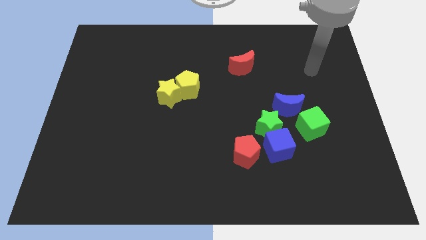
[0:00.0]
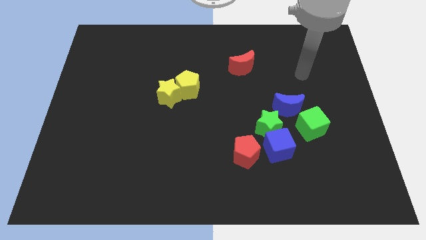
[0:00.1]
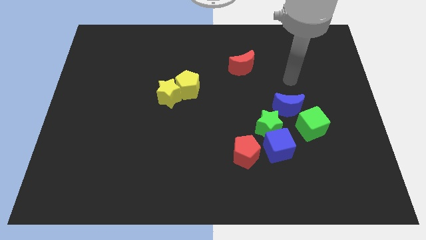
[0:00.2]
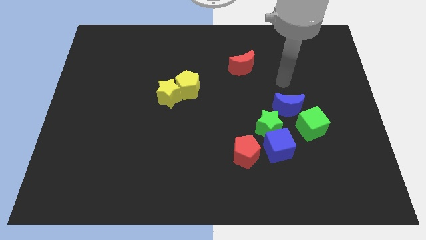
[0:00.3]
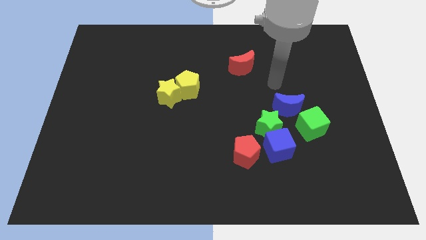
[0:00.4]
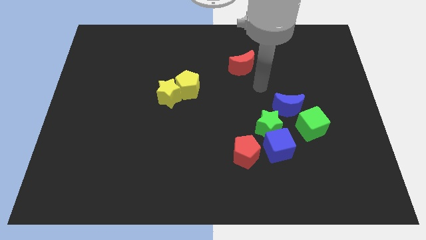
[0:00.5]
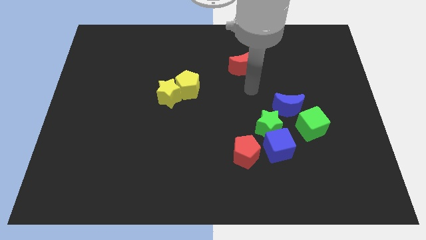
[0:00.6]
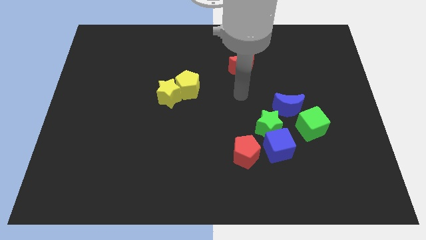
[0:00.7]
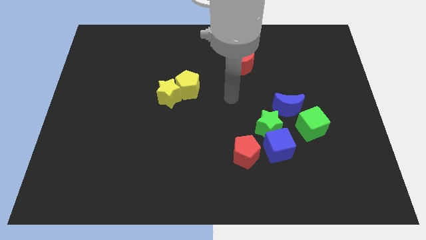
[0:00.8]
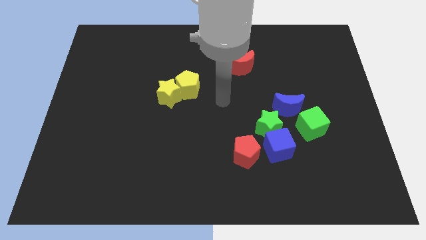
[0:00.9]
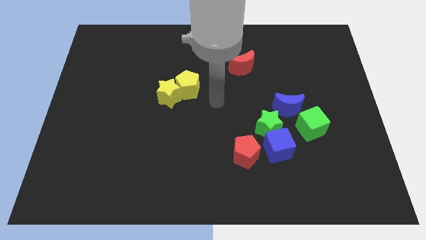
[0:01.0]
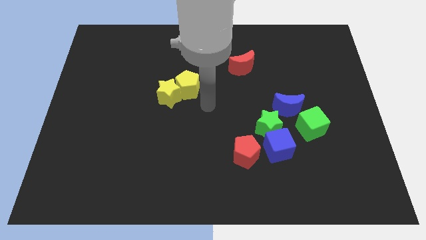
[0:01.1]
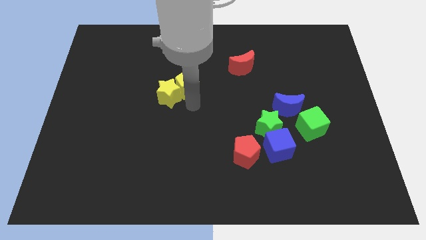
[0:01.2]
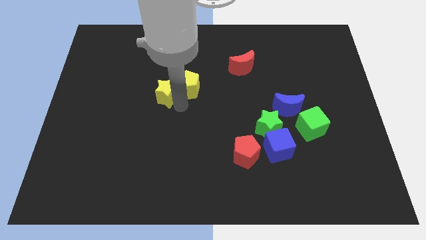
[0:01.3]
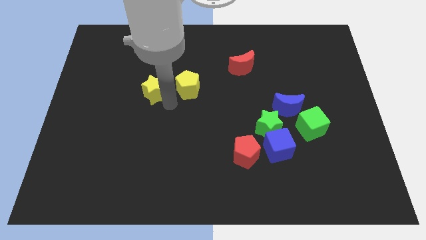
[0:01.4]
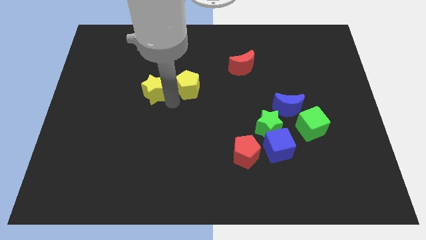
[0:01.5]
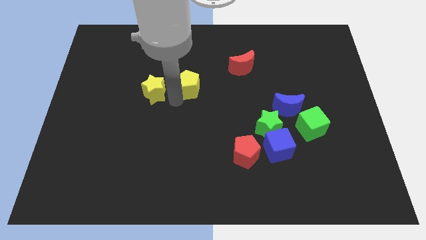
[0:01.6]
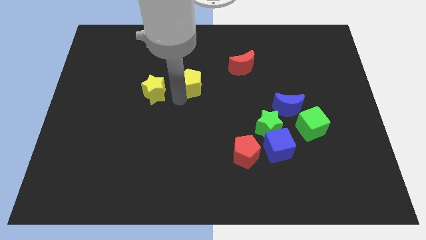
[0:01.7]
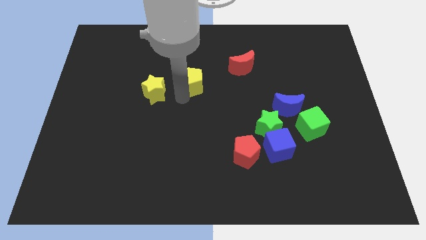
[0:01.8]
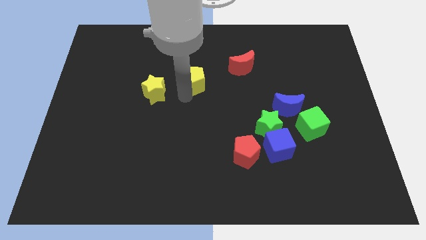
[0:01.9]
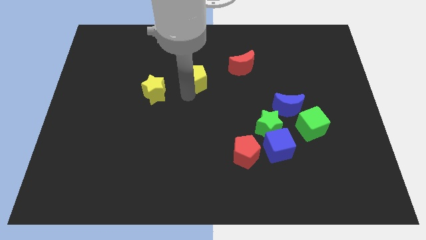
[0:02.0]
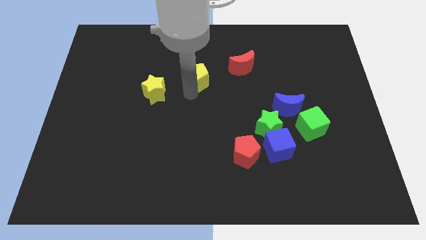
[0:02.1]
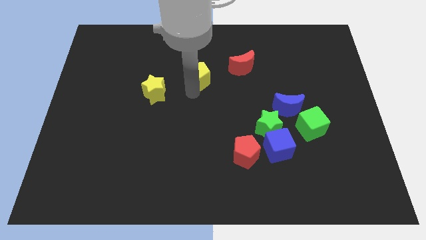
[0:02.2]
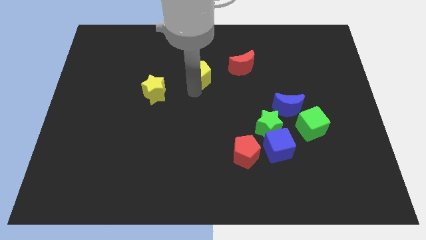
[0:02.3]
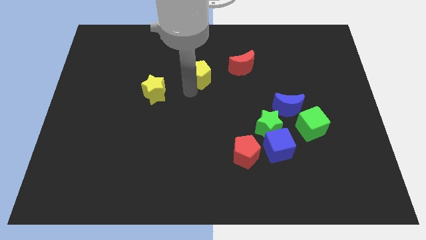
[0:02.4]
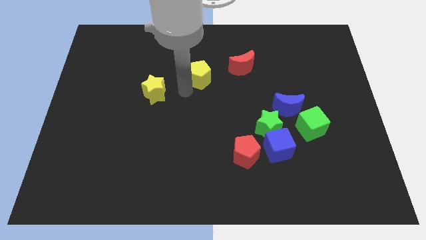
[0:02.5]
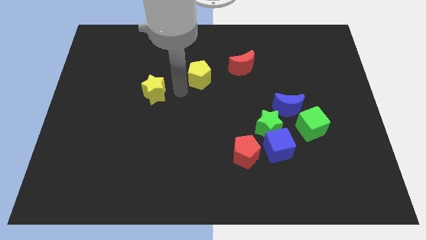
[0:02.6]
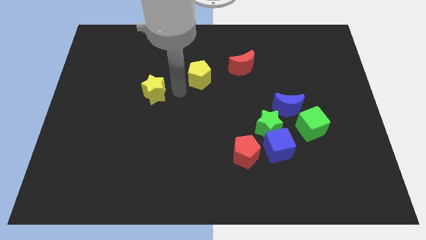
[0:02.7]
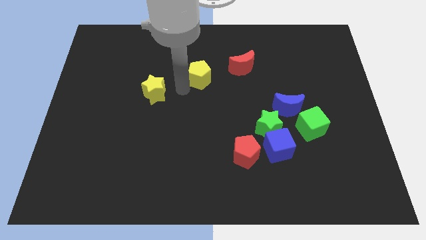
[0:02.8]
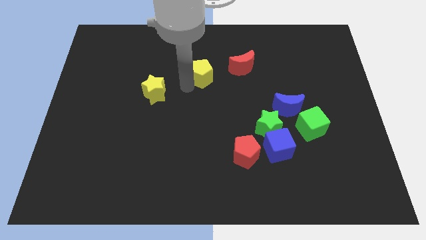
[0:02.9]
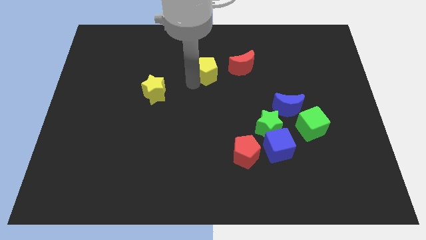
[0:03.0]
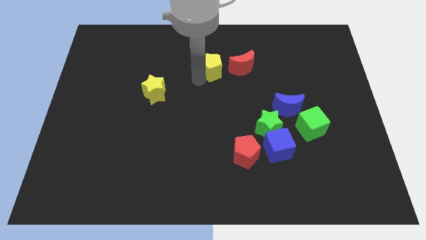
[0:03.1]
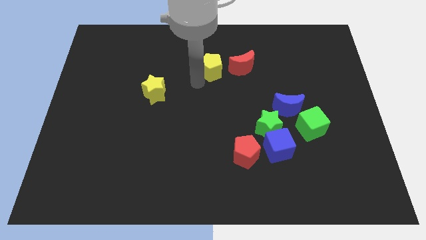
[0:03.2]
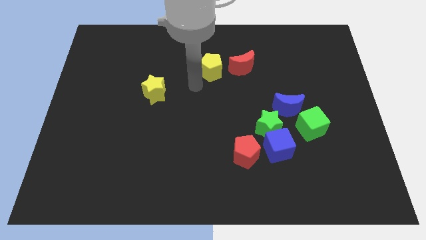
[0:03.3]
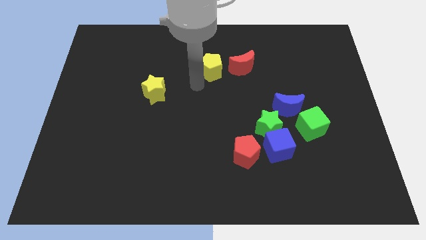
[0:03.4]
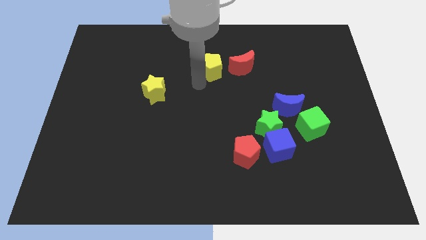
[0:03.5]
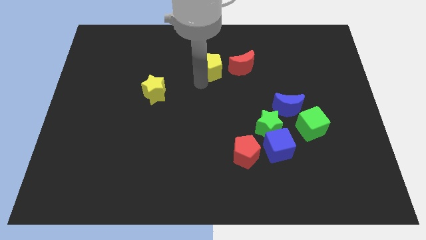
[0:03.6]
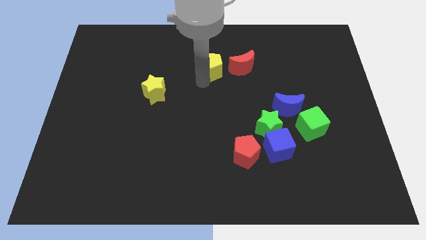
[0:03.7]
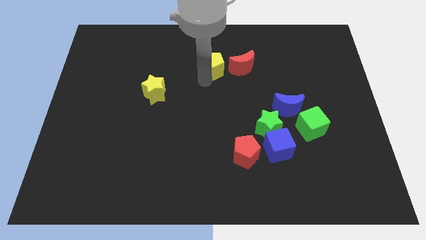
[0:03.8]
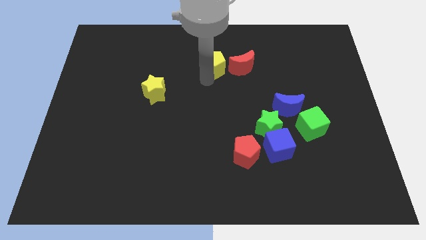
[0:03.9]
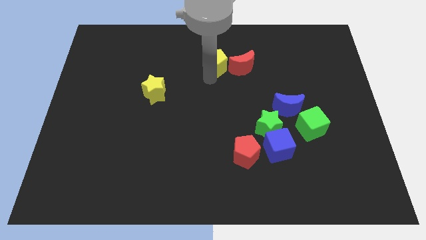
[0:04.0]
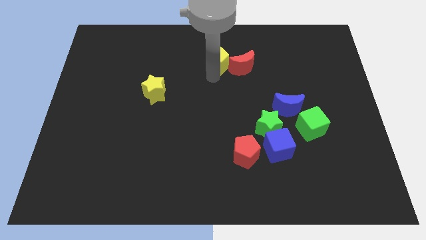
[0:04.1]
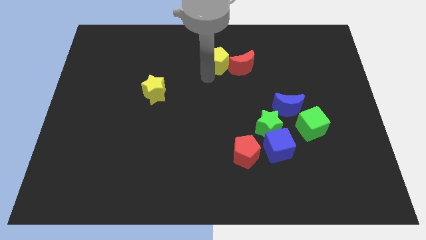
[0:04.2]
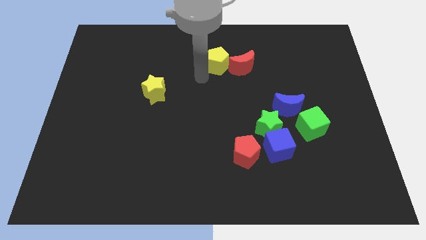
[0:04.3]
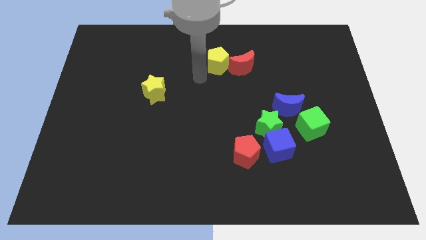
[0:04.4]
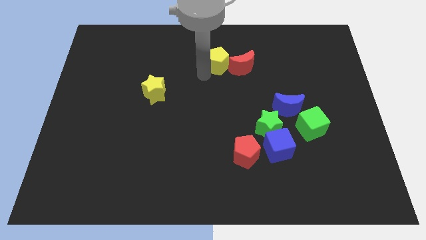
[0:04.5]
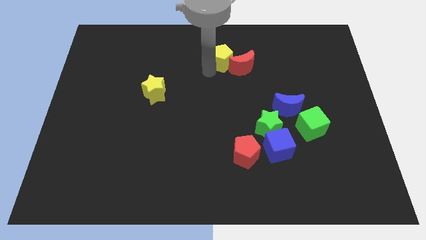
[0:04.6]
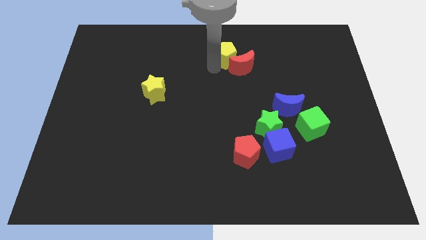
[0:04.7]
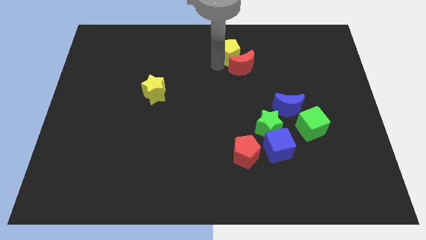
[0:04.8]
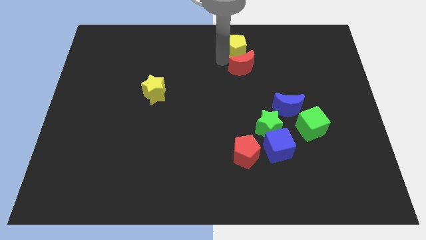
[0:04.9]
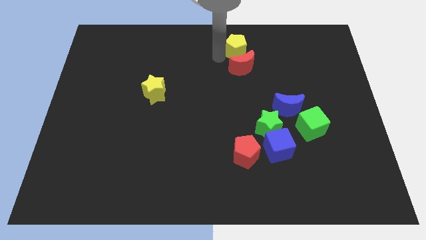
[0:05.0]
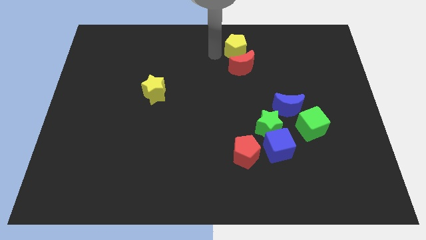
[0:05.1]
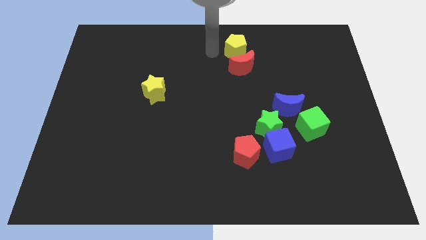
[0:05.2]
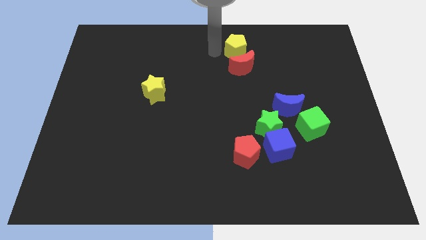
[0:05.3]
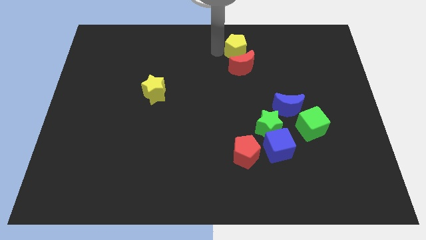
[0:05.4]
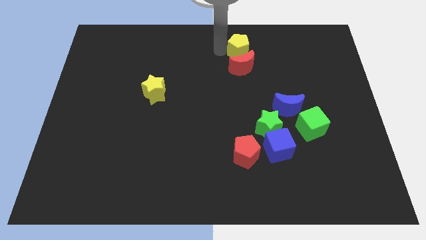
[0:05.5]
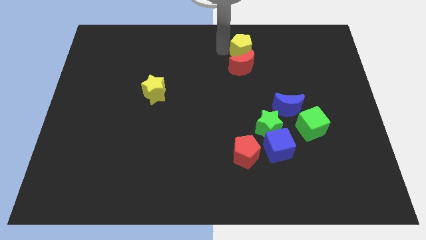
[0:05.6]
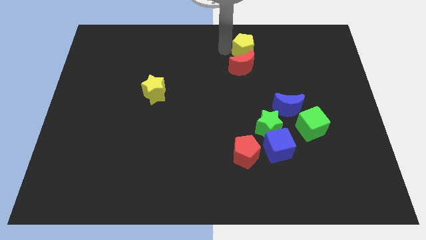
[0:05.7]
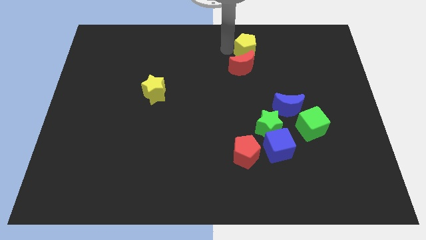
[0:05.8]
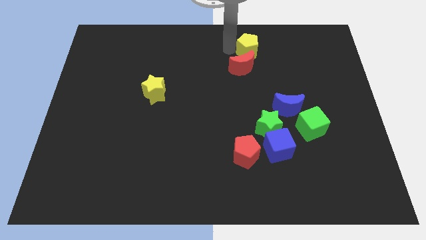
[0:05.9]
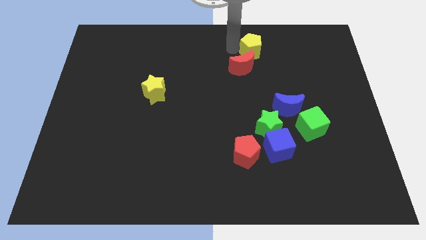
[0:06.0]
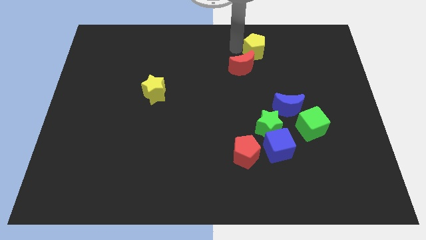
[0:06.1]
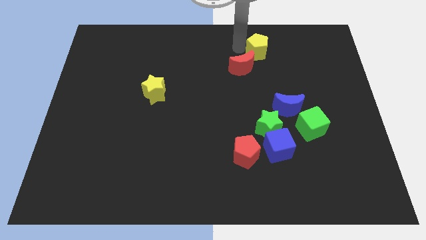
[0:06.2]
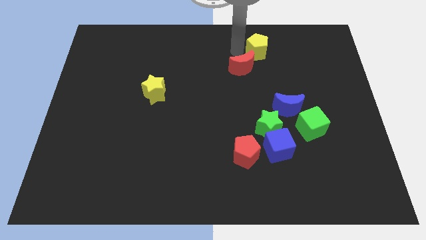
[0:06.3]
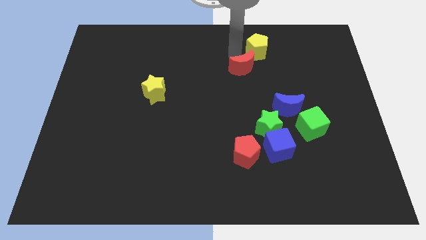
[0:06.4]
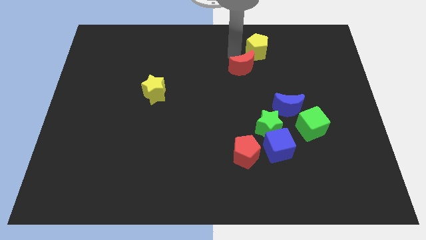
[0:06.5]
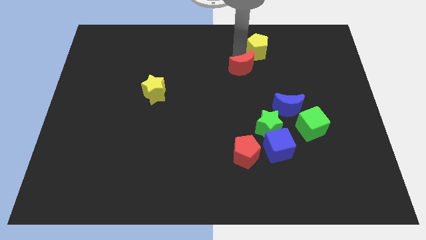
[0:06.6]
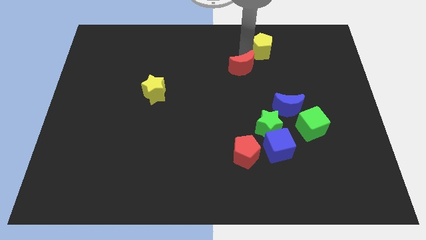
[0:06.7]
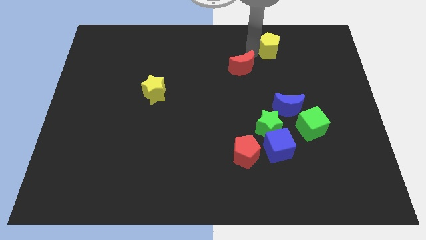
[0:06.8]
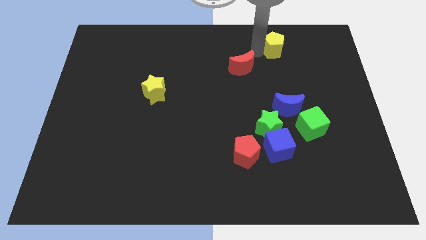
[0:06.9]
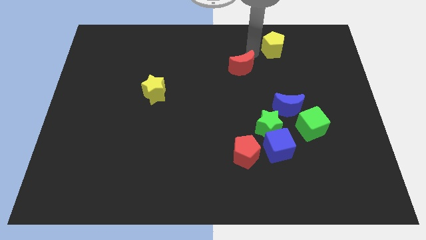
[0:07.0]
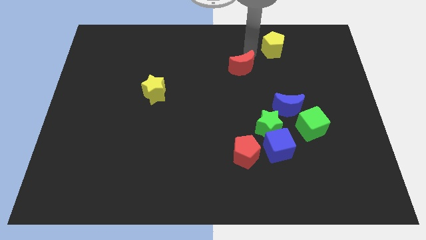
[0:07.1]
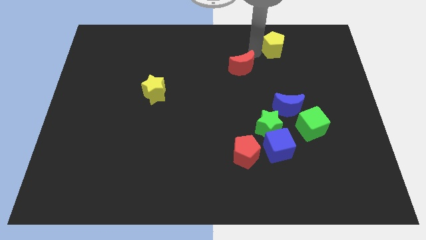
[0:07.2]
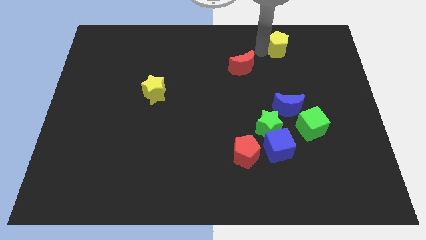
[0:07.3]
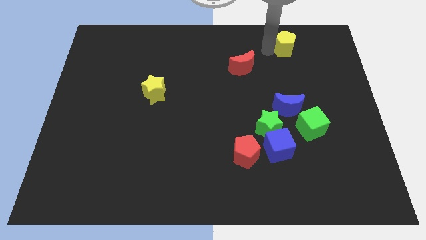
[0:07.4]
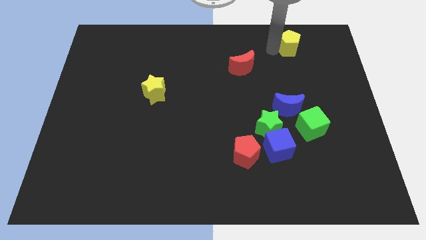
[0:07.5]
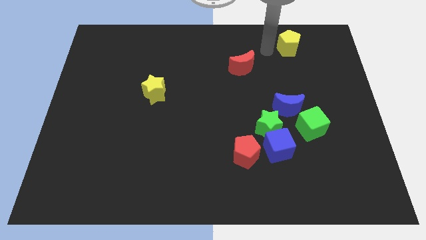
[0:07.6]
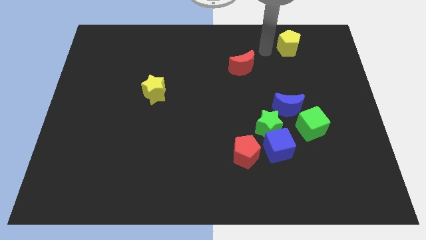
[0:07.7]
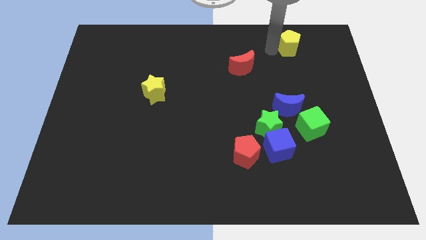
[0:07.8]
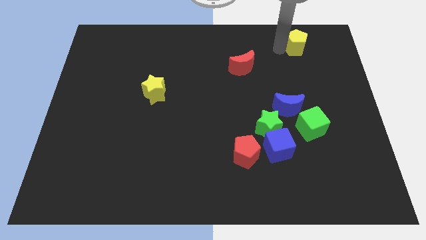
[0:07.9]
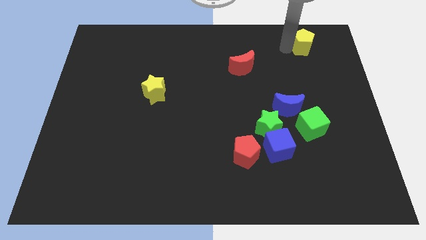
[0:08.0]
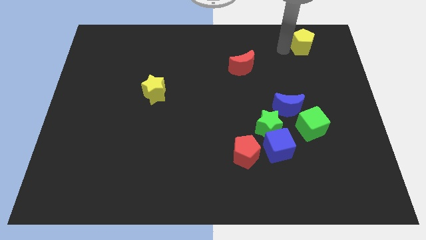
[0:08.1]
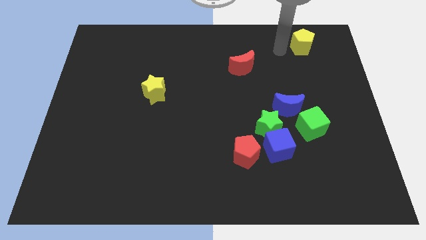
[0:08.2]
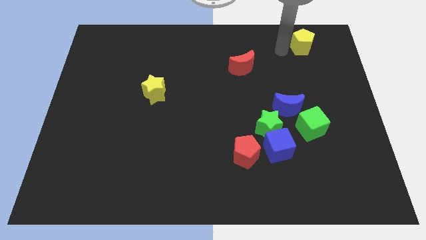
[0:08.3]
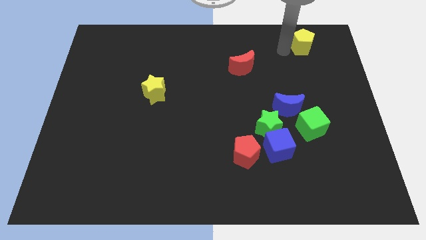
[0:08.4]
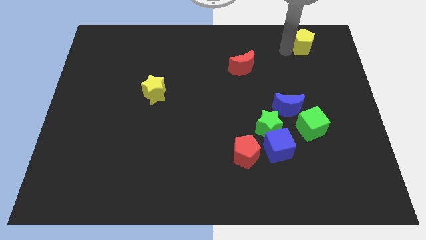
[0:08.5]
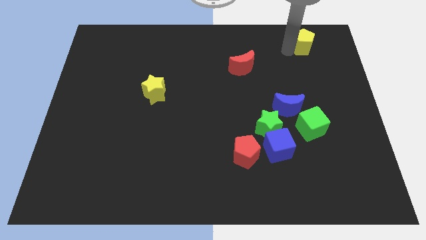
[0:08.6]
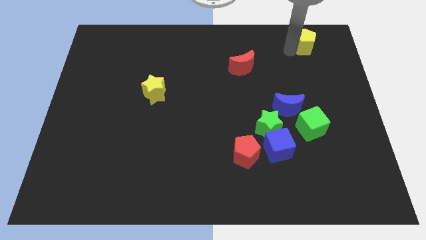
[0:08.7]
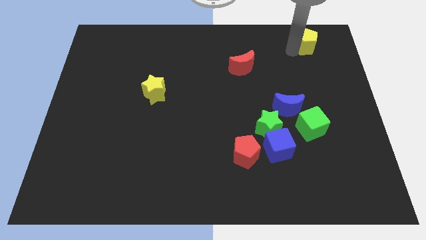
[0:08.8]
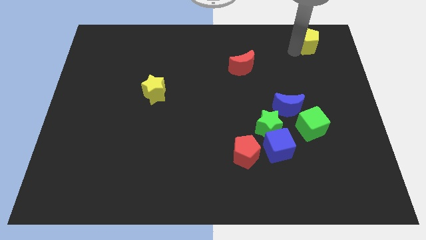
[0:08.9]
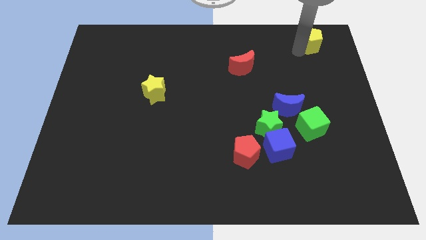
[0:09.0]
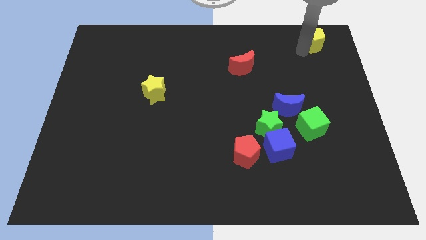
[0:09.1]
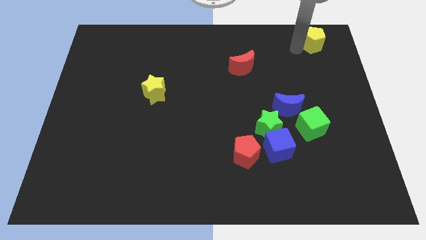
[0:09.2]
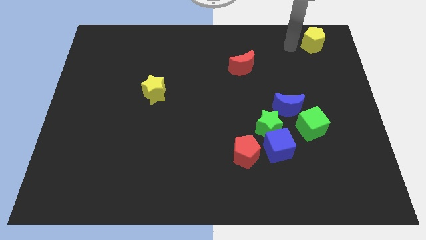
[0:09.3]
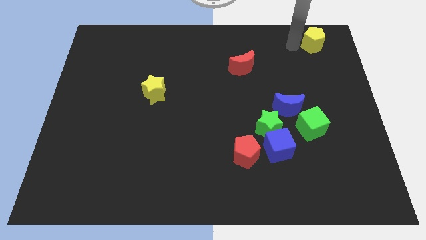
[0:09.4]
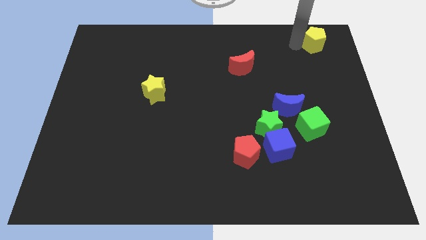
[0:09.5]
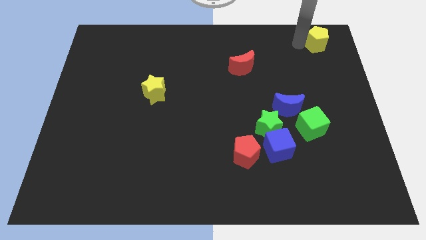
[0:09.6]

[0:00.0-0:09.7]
move the yellow pentagon to the top right
